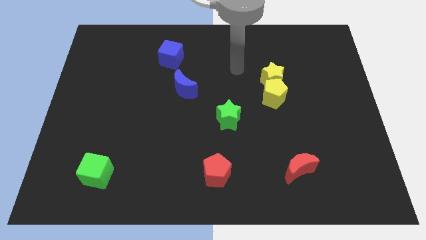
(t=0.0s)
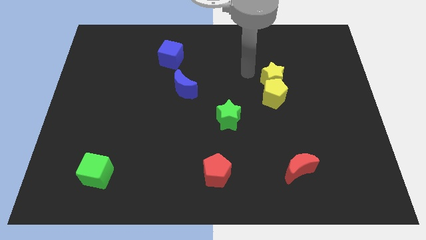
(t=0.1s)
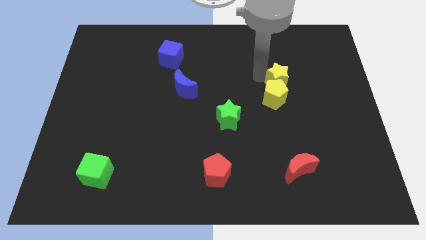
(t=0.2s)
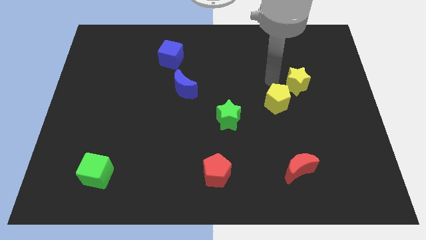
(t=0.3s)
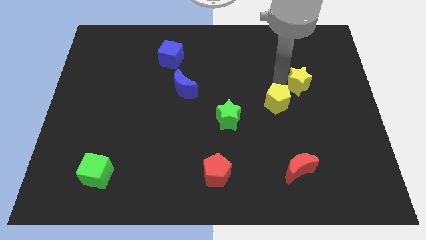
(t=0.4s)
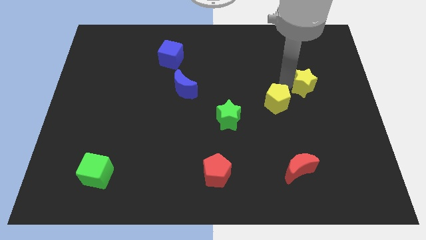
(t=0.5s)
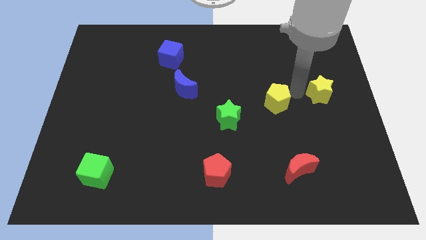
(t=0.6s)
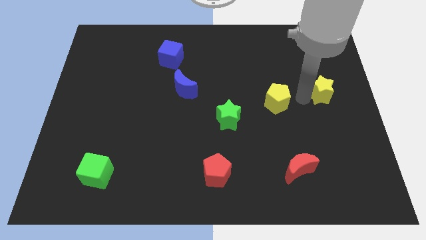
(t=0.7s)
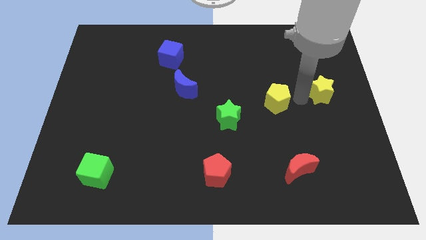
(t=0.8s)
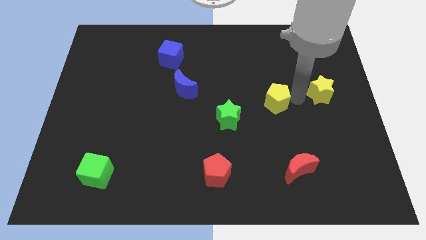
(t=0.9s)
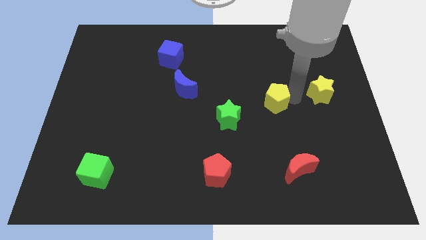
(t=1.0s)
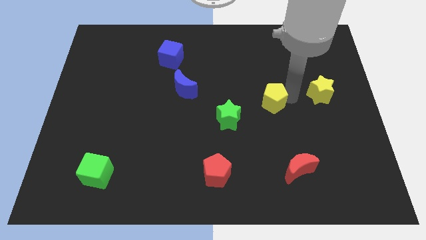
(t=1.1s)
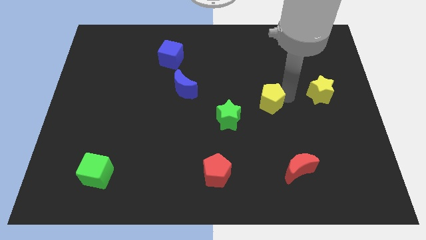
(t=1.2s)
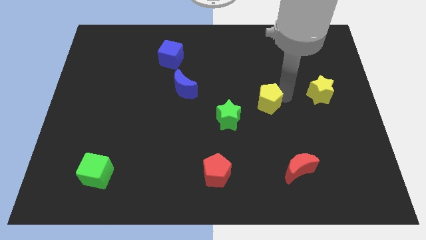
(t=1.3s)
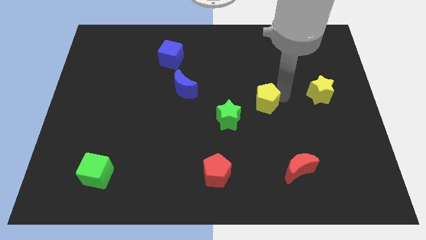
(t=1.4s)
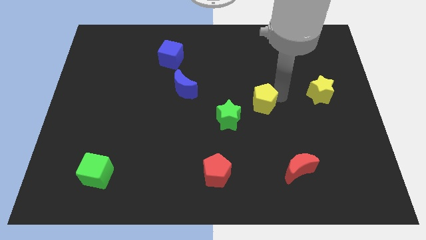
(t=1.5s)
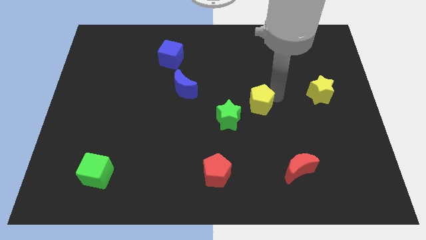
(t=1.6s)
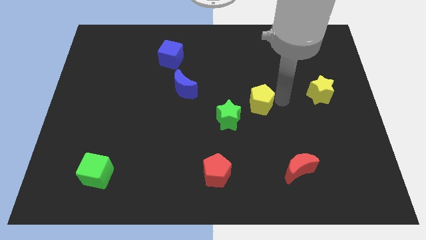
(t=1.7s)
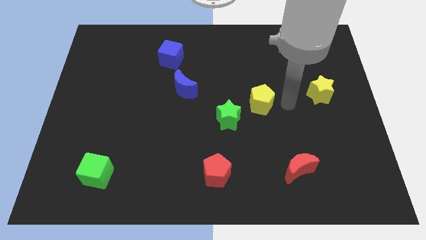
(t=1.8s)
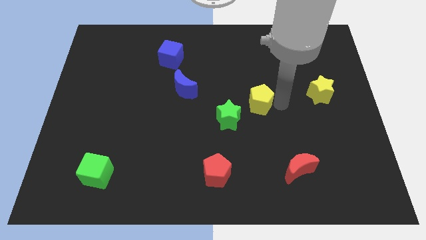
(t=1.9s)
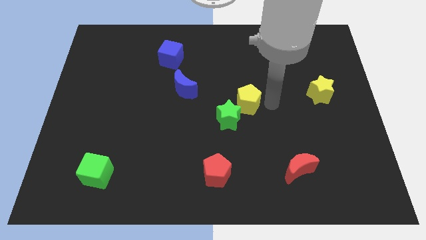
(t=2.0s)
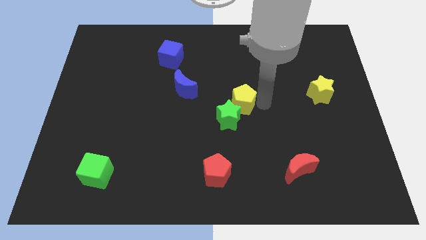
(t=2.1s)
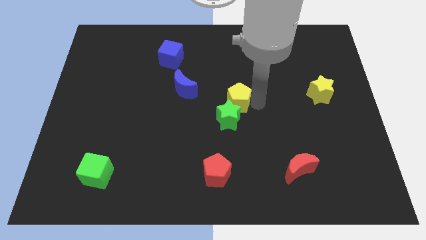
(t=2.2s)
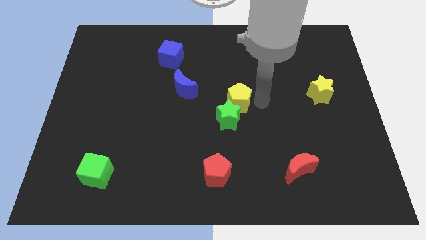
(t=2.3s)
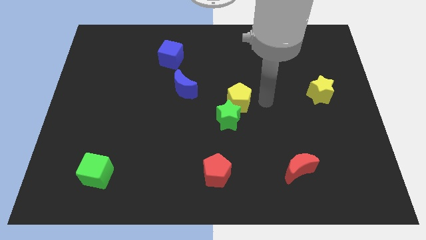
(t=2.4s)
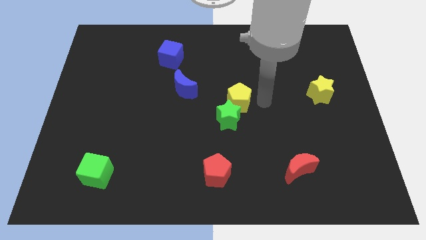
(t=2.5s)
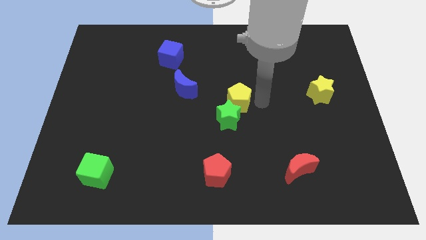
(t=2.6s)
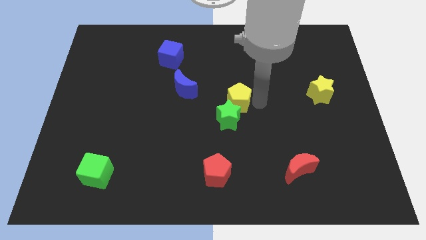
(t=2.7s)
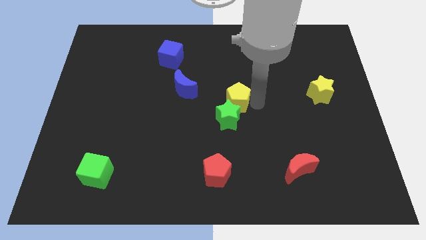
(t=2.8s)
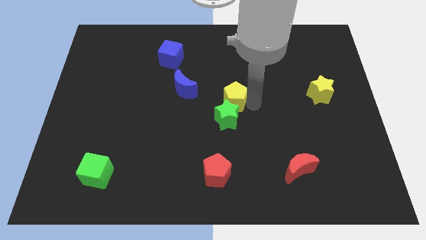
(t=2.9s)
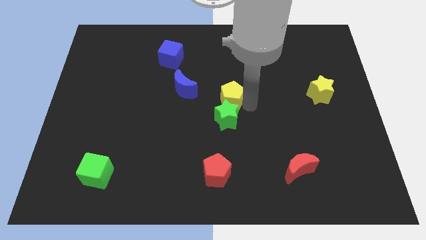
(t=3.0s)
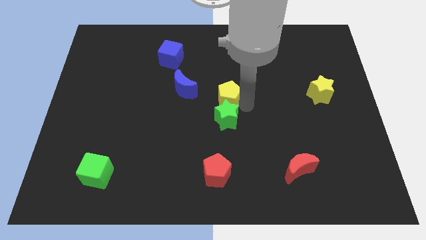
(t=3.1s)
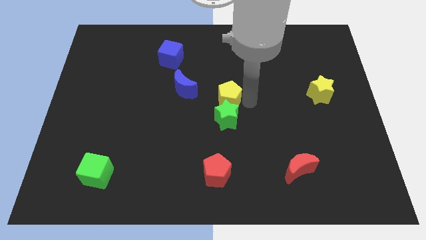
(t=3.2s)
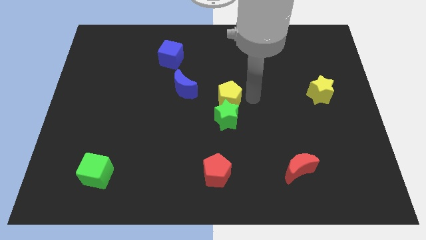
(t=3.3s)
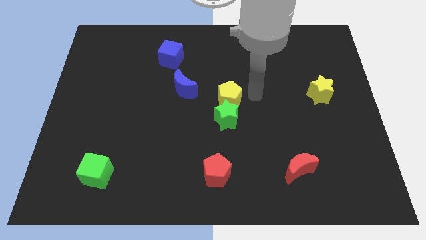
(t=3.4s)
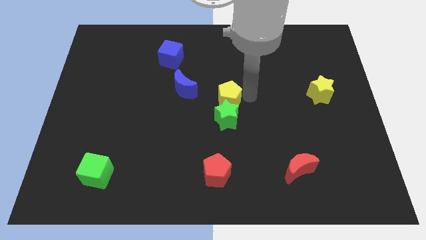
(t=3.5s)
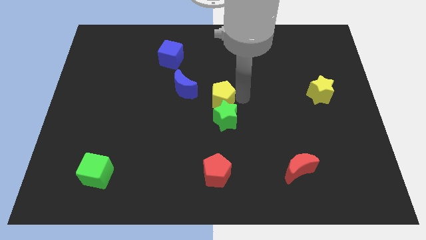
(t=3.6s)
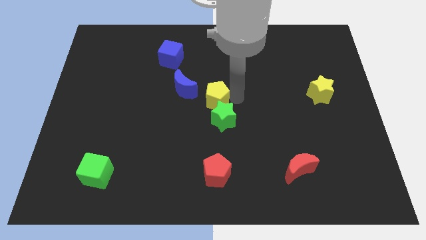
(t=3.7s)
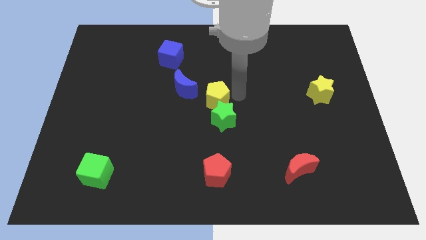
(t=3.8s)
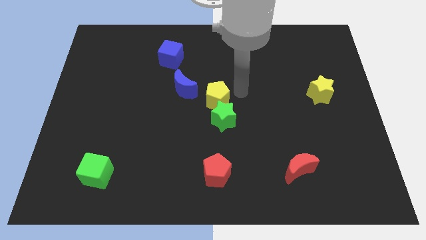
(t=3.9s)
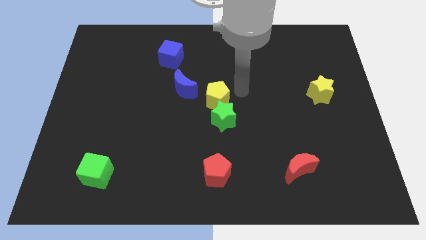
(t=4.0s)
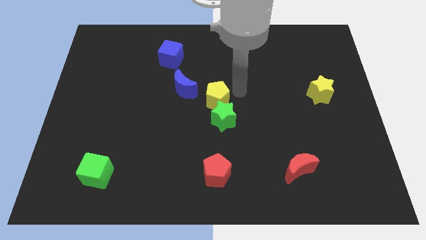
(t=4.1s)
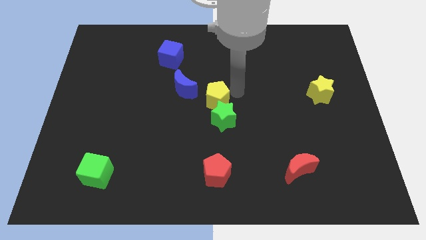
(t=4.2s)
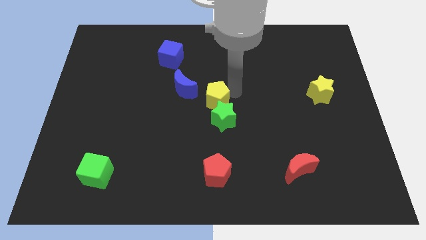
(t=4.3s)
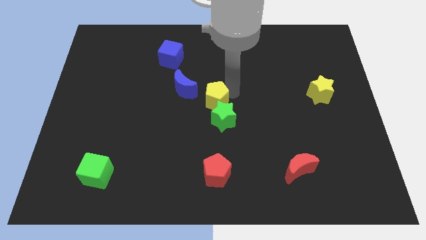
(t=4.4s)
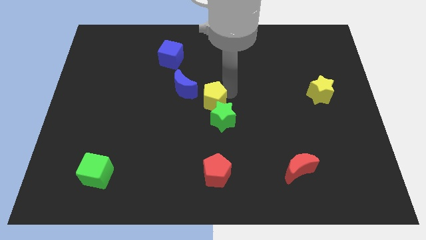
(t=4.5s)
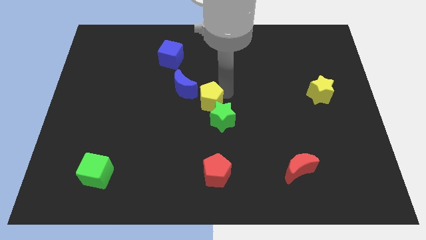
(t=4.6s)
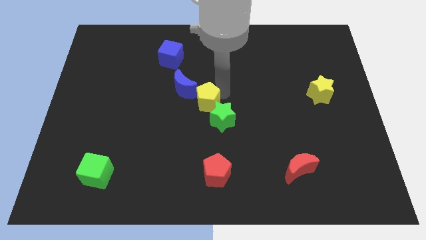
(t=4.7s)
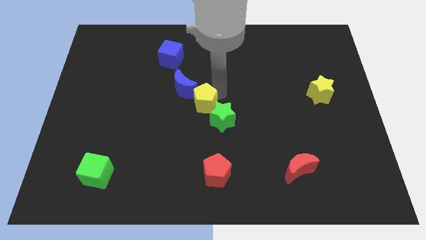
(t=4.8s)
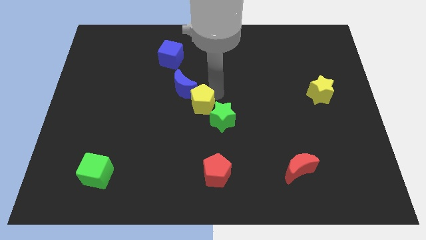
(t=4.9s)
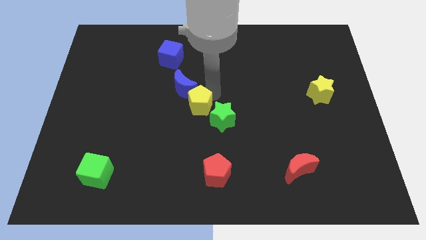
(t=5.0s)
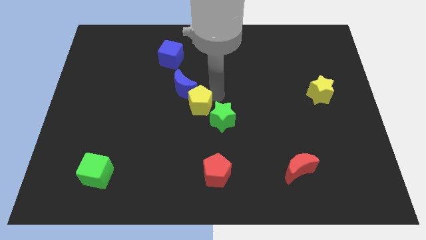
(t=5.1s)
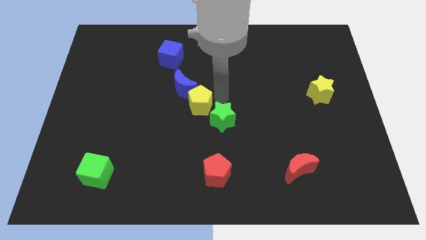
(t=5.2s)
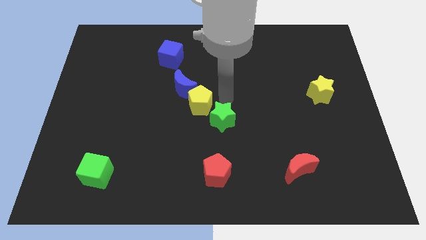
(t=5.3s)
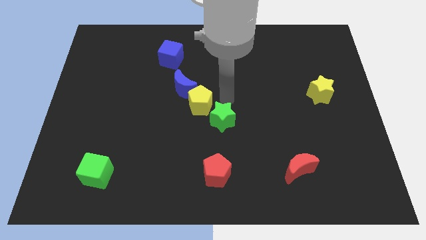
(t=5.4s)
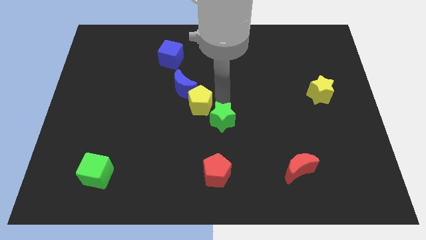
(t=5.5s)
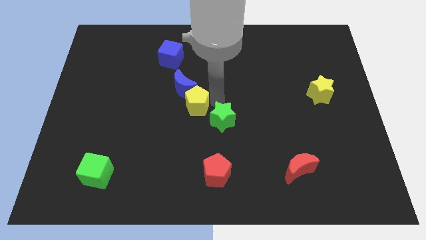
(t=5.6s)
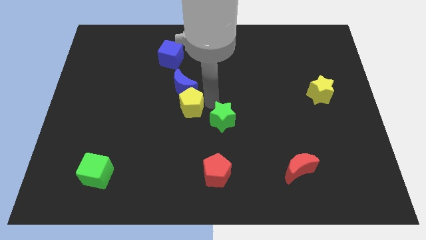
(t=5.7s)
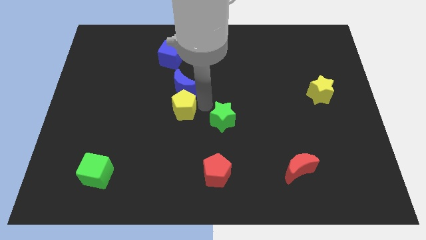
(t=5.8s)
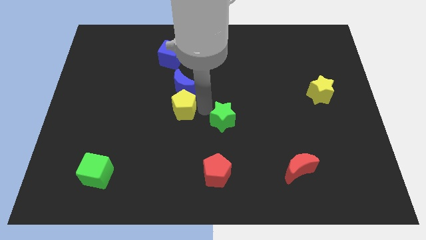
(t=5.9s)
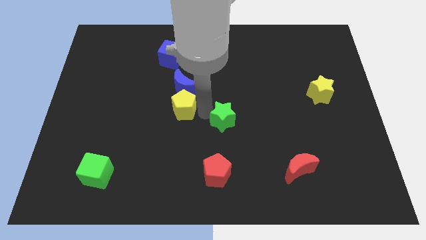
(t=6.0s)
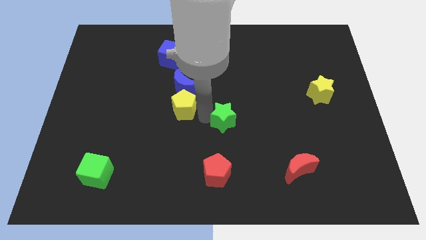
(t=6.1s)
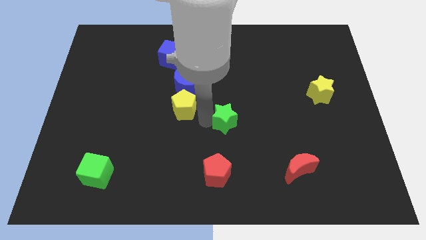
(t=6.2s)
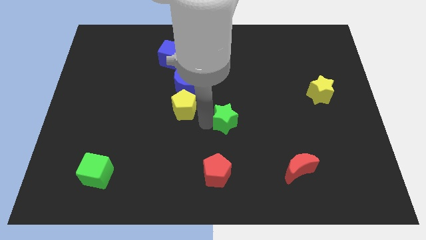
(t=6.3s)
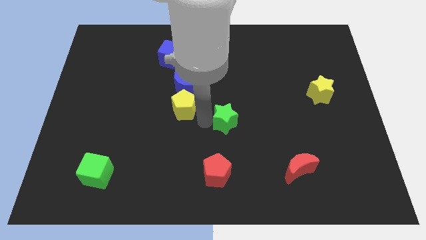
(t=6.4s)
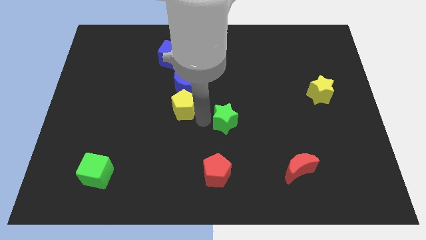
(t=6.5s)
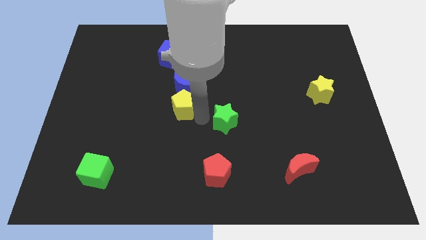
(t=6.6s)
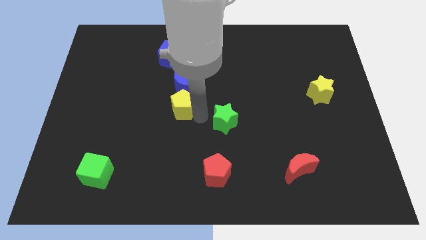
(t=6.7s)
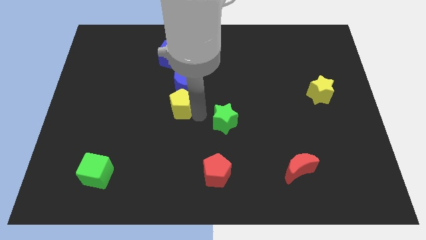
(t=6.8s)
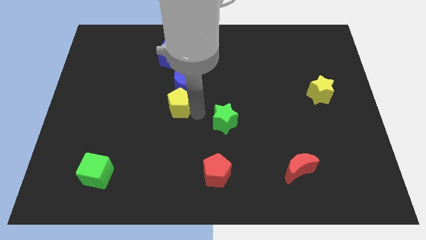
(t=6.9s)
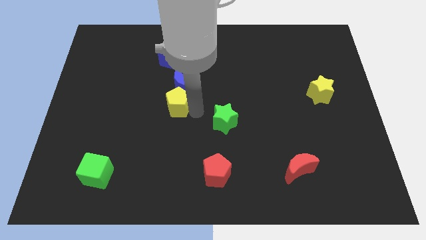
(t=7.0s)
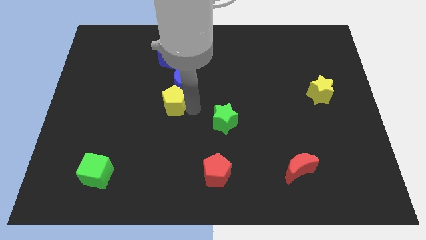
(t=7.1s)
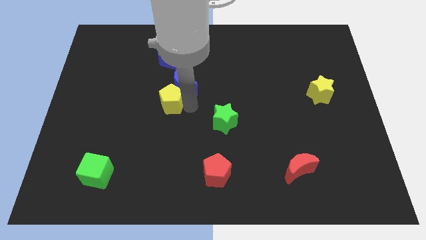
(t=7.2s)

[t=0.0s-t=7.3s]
push the yellow pentagon to the left of the blue moon
